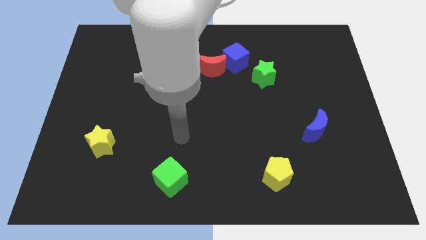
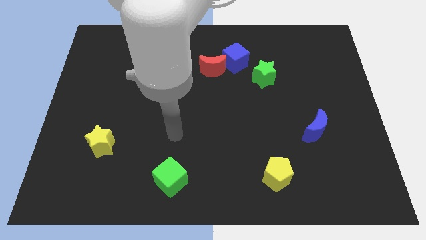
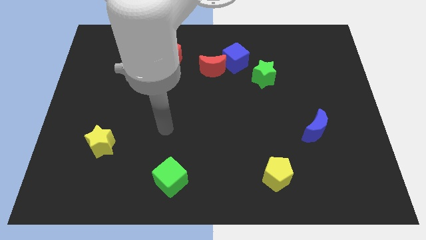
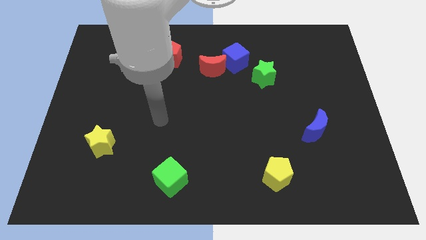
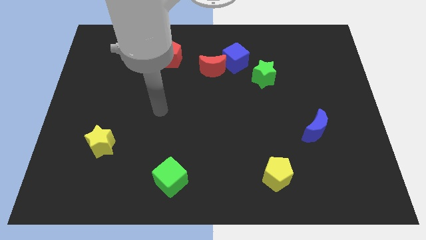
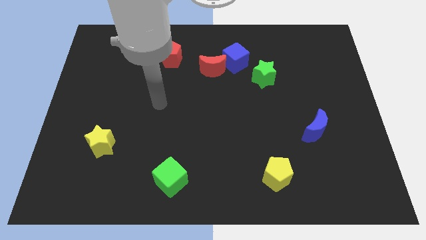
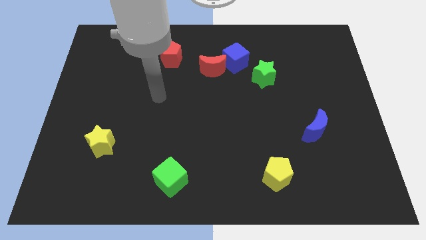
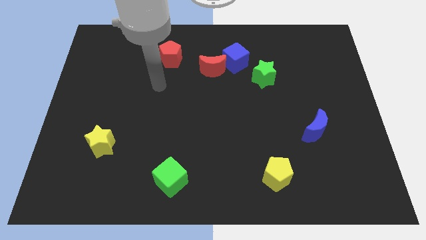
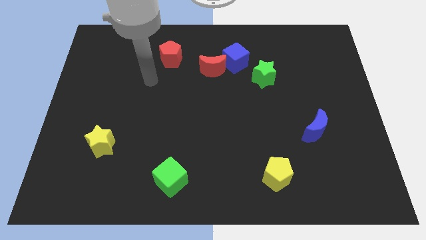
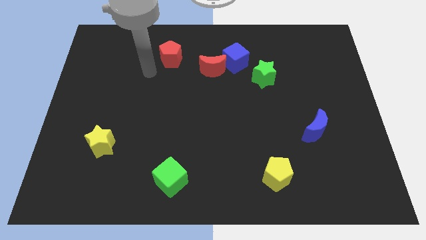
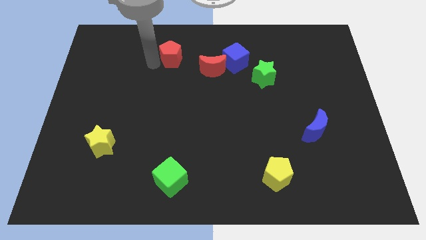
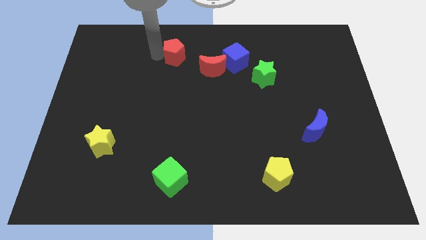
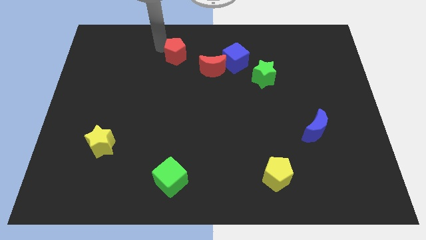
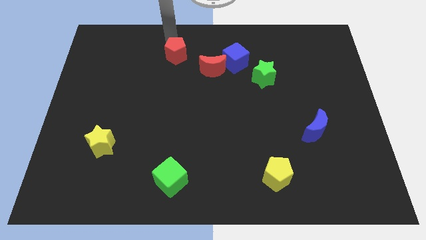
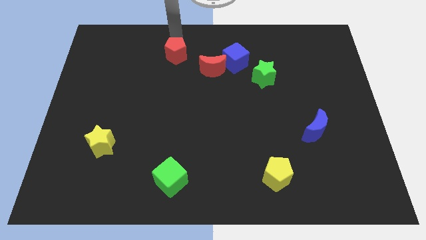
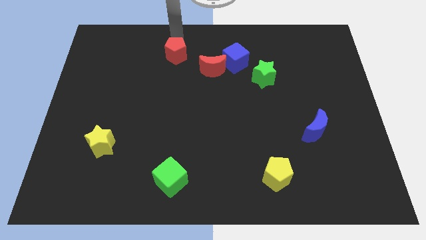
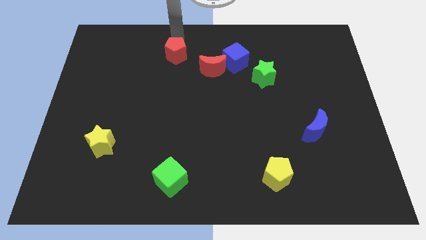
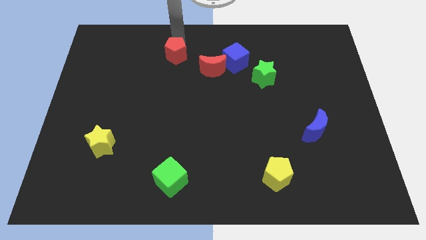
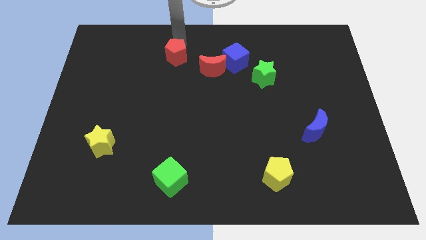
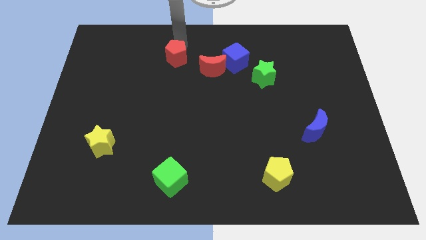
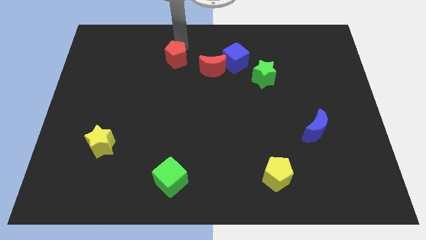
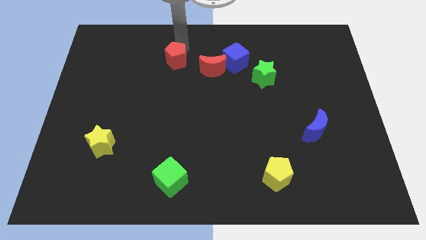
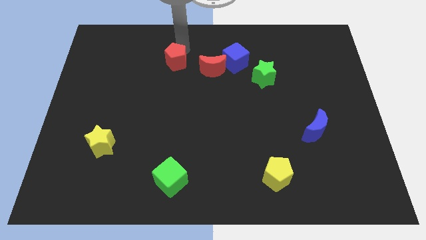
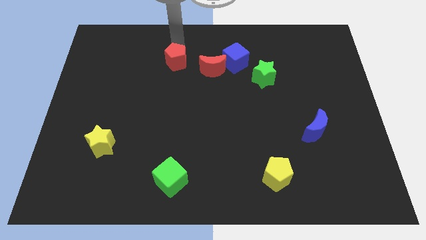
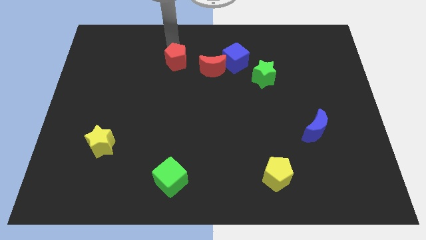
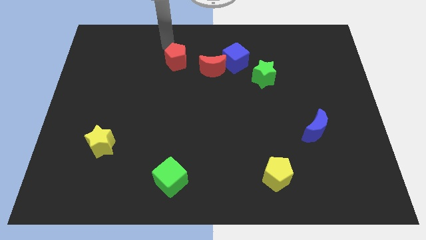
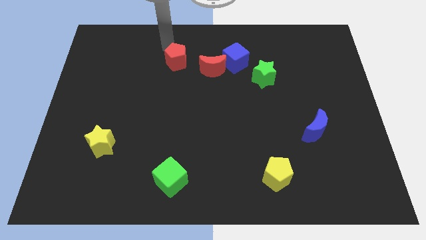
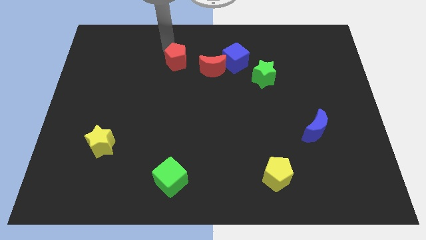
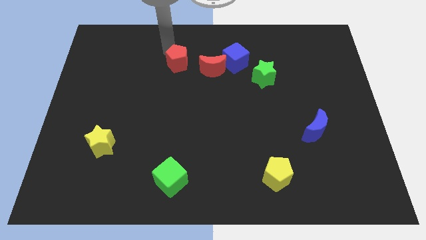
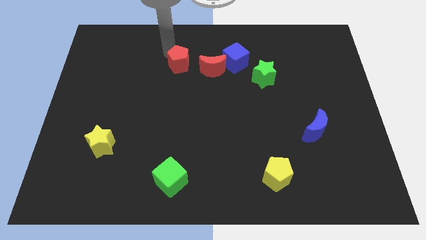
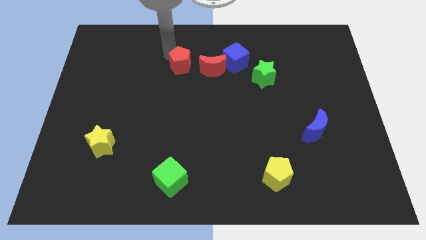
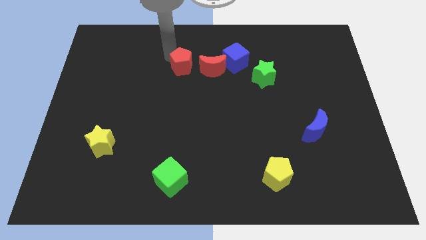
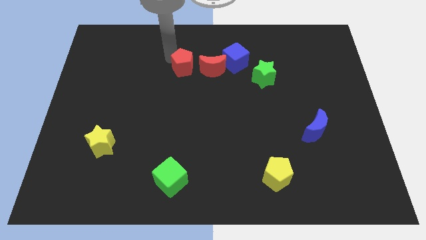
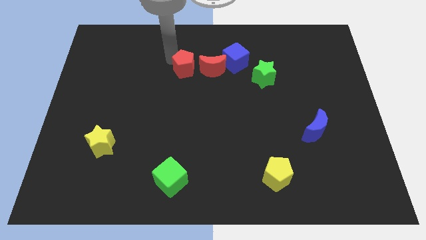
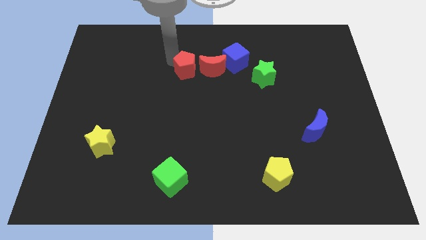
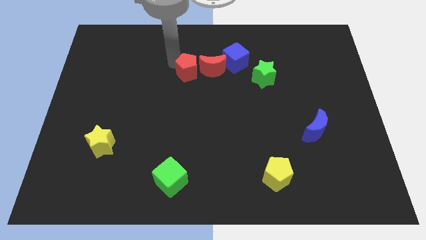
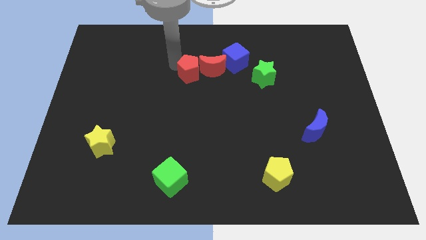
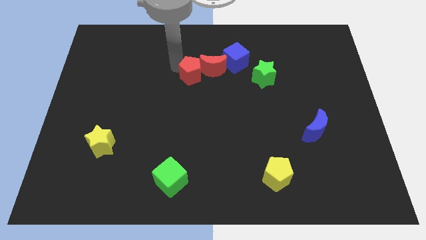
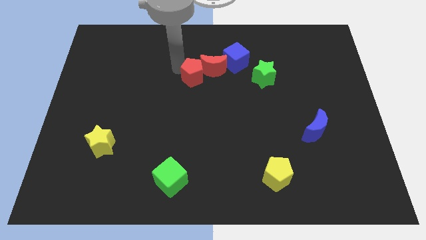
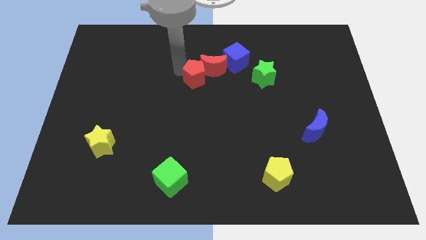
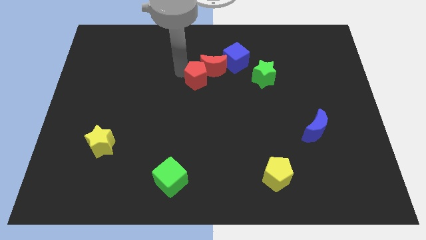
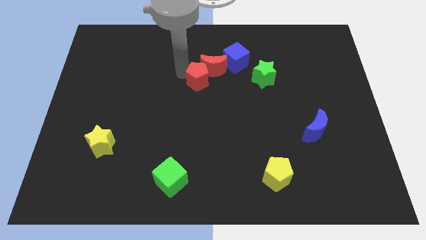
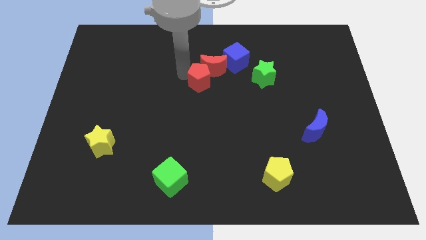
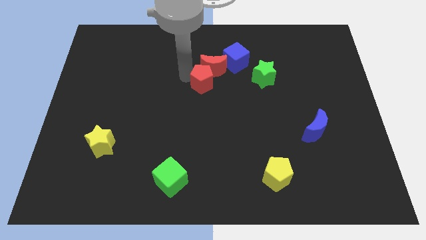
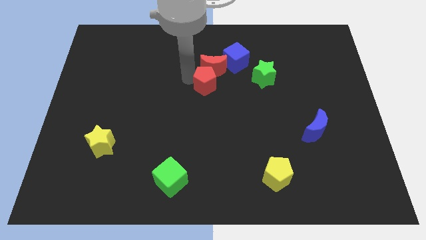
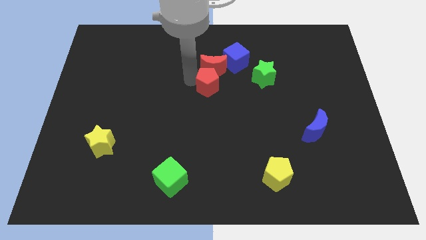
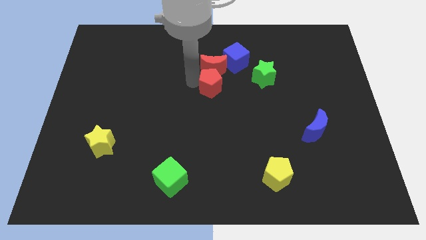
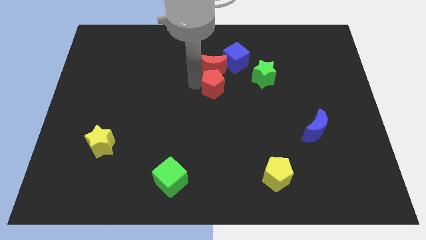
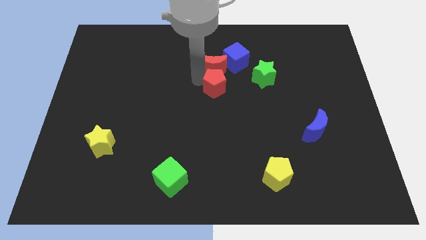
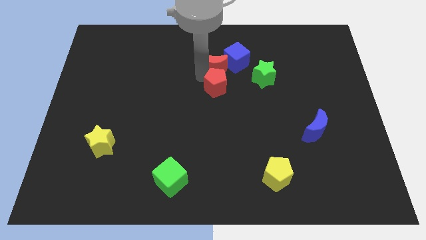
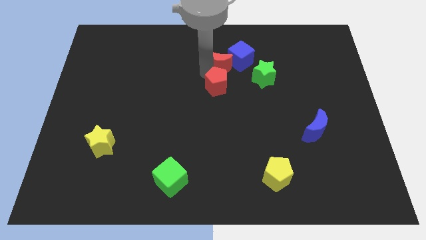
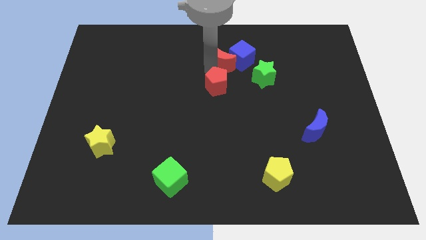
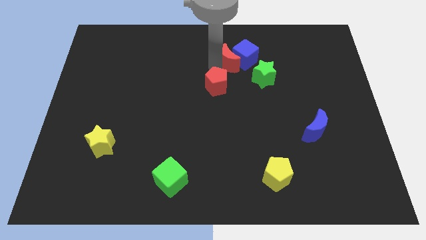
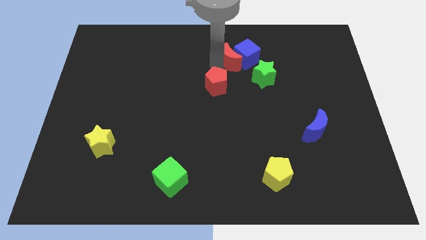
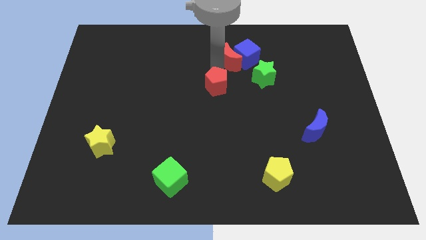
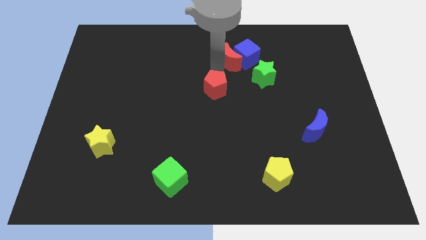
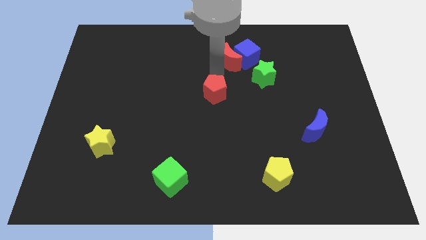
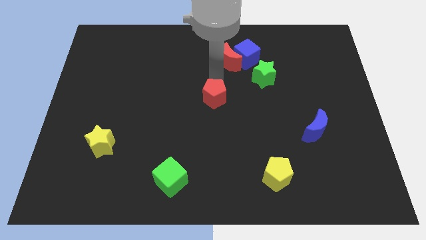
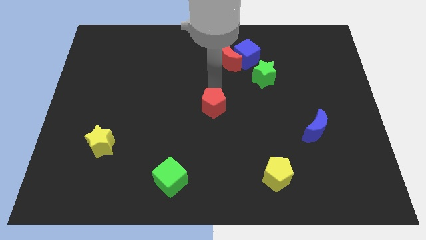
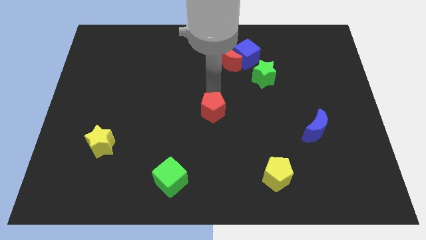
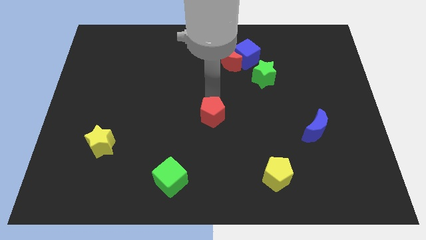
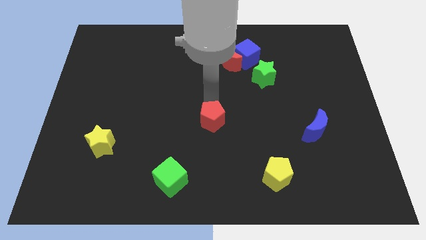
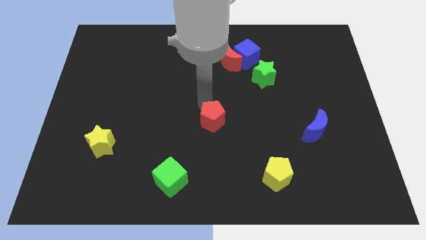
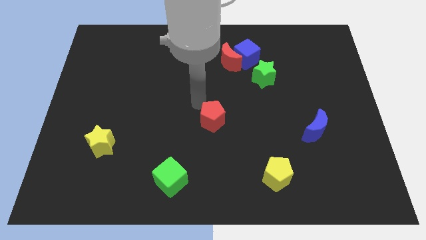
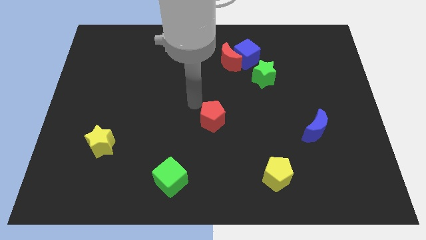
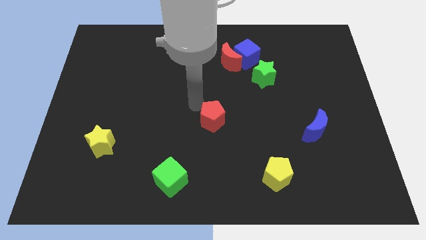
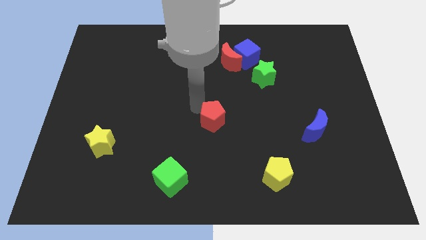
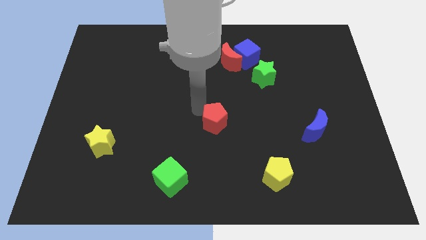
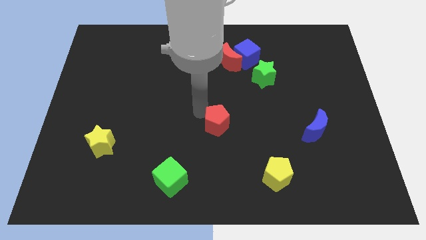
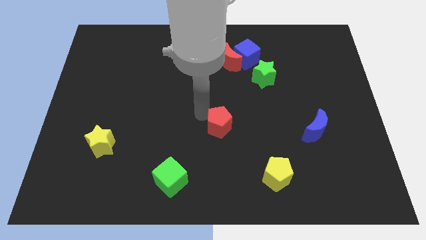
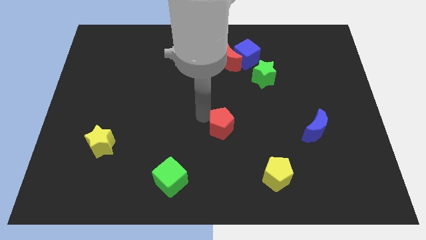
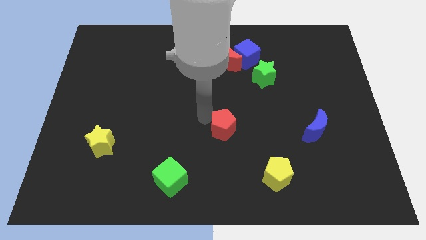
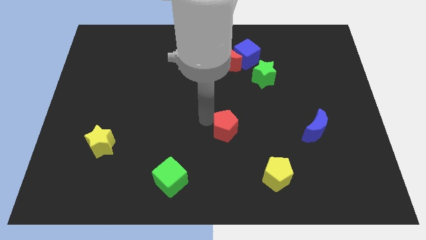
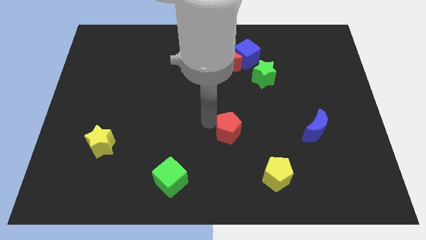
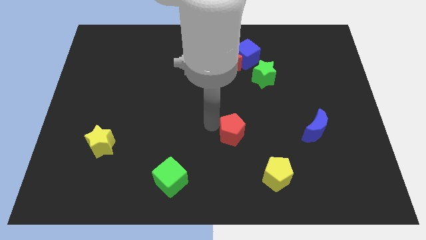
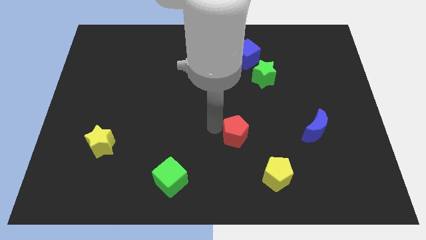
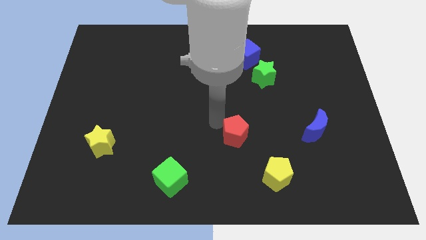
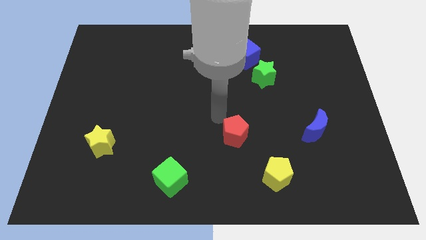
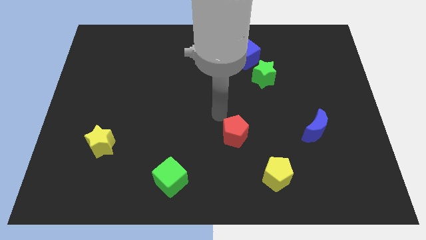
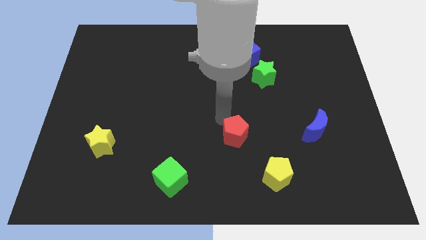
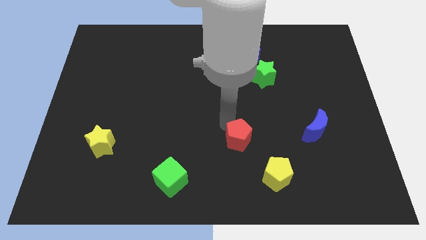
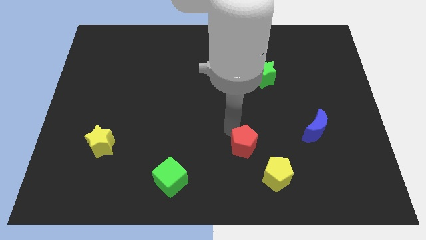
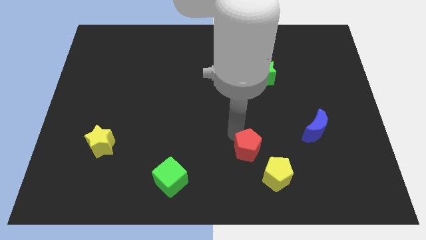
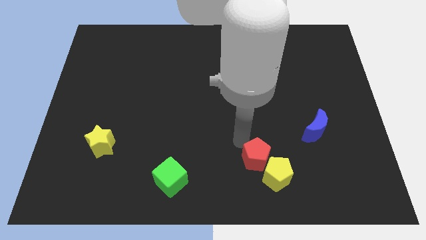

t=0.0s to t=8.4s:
slide the red pentagon next to the yellow pentagon
